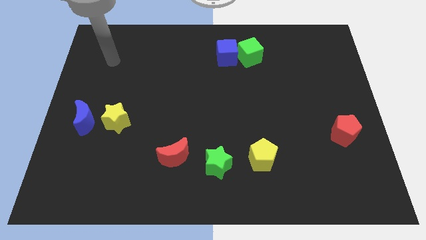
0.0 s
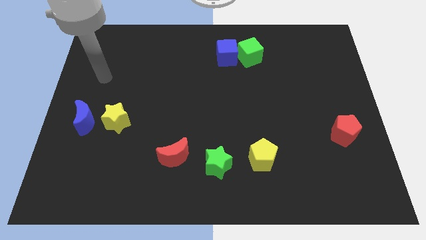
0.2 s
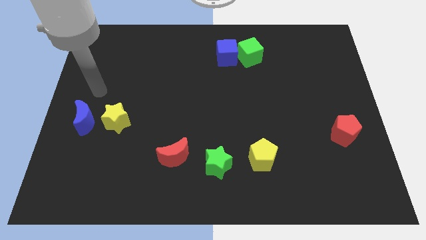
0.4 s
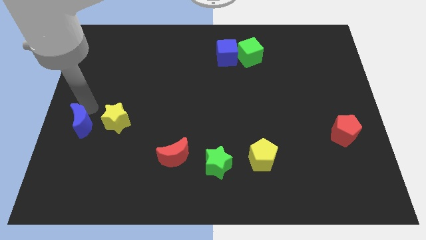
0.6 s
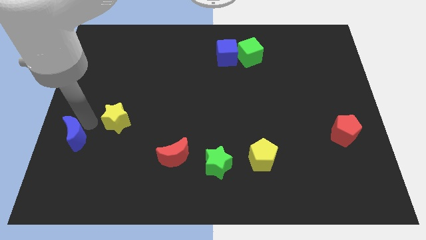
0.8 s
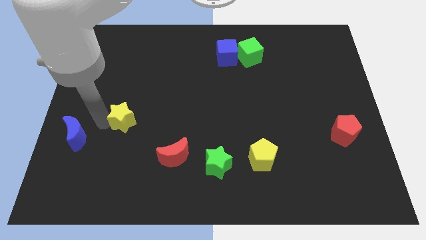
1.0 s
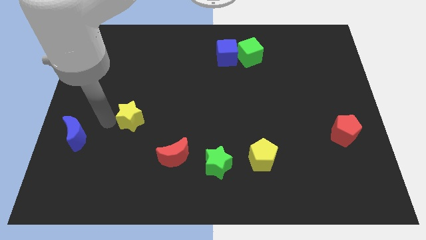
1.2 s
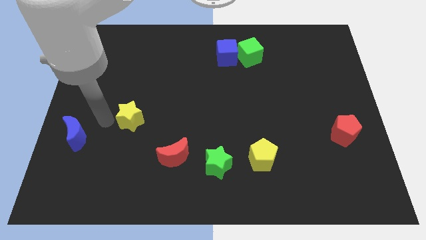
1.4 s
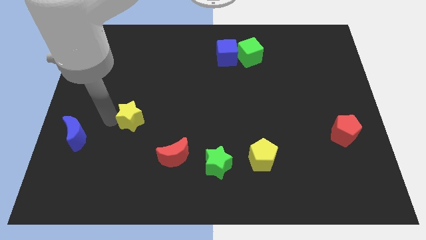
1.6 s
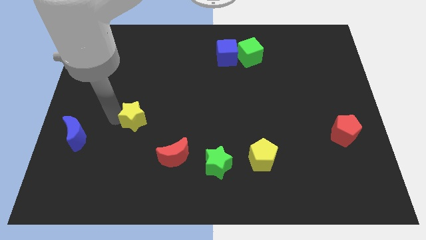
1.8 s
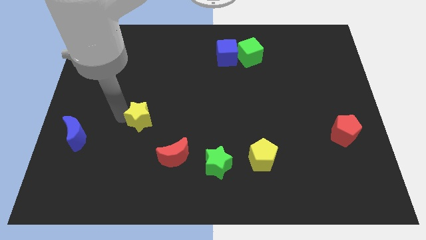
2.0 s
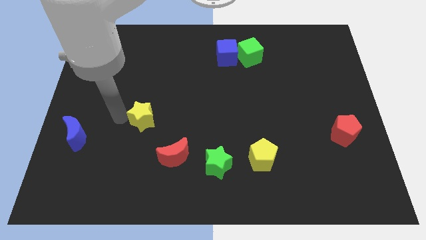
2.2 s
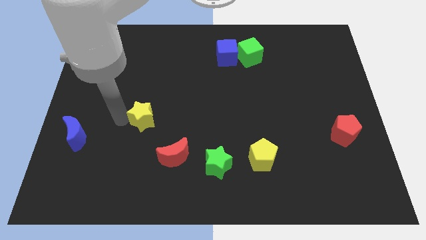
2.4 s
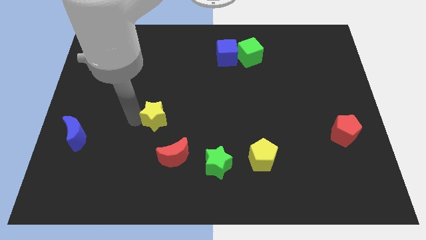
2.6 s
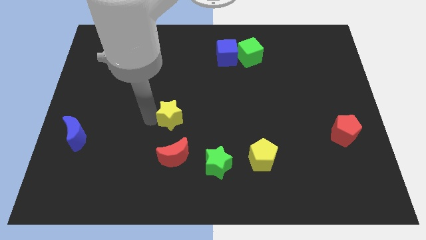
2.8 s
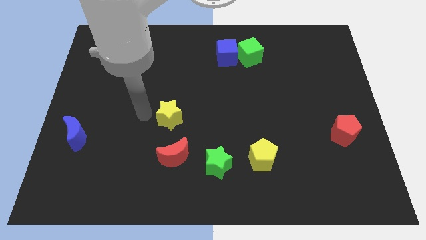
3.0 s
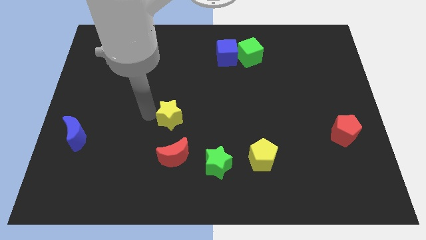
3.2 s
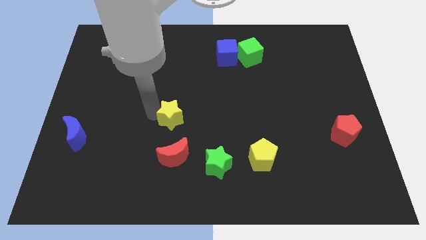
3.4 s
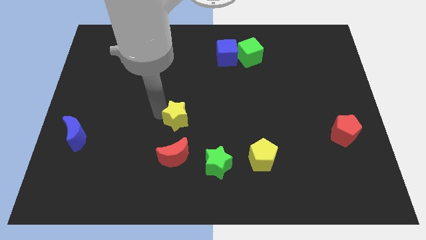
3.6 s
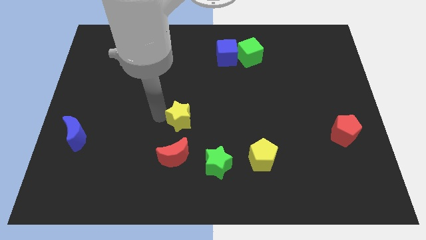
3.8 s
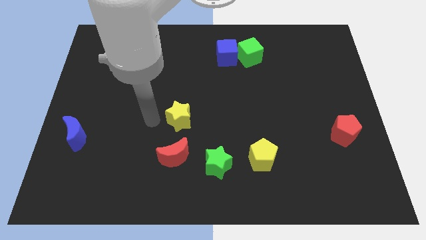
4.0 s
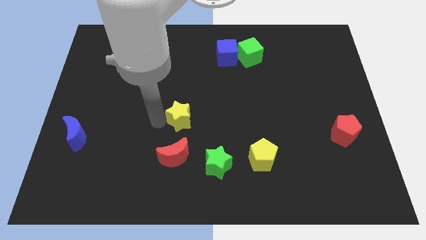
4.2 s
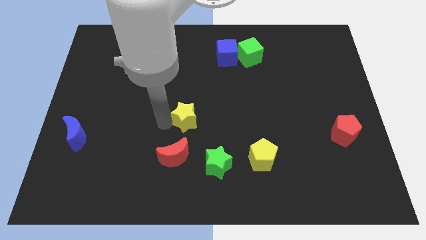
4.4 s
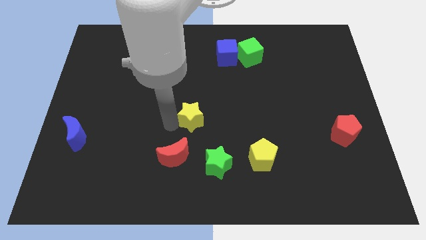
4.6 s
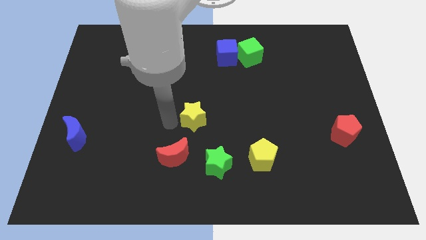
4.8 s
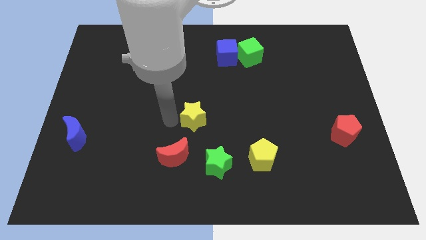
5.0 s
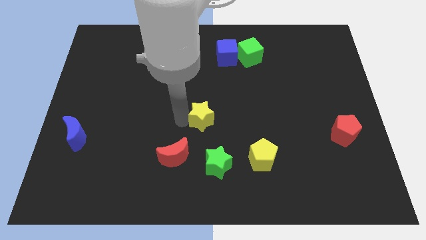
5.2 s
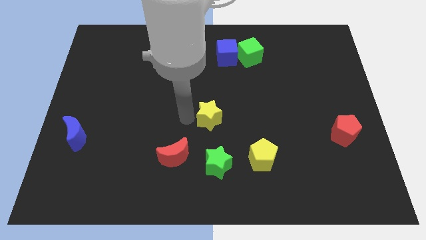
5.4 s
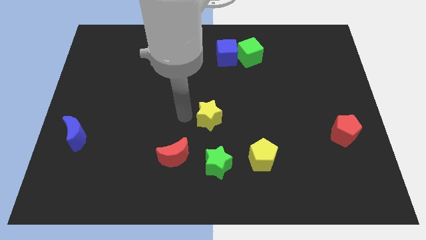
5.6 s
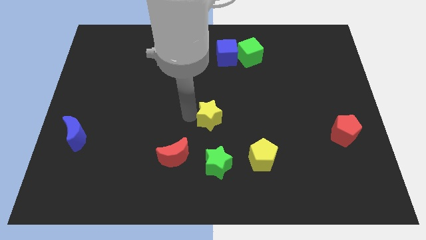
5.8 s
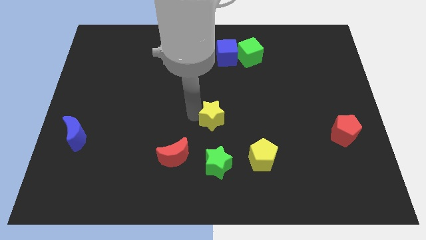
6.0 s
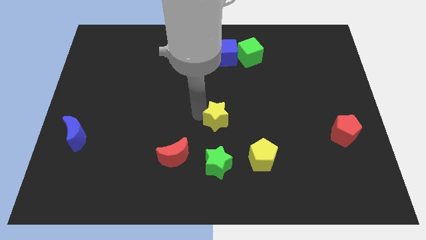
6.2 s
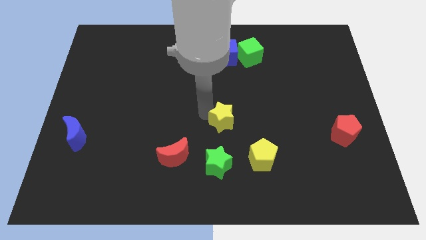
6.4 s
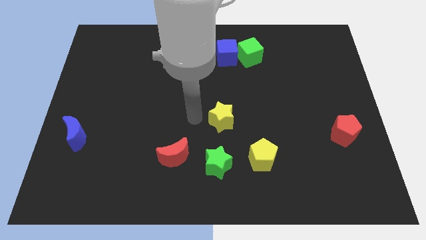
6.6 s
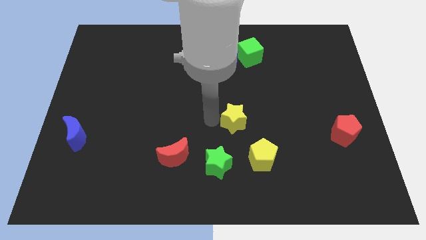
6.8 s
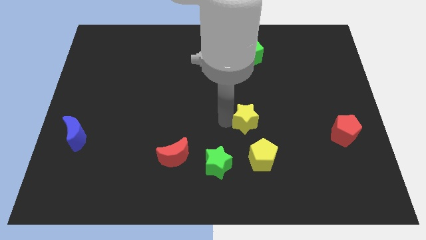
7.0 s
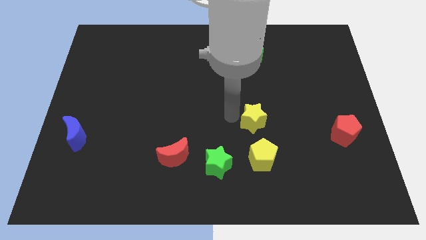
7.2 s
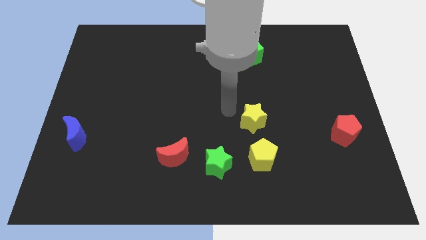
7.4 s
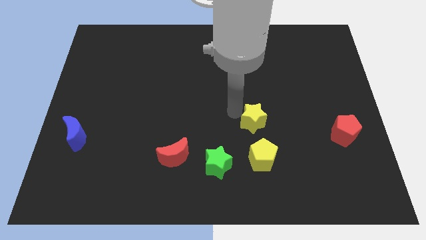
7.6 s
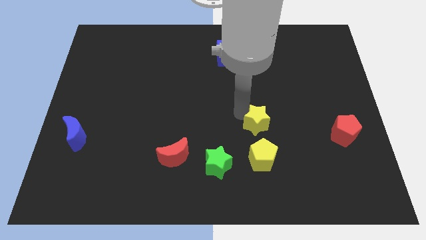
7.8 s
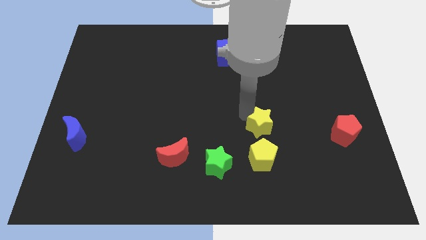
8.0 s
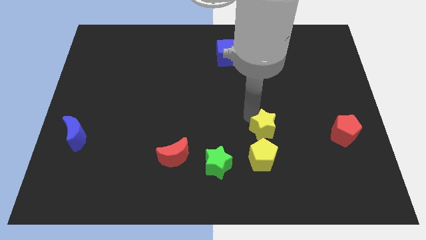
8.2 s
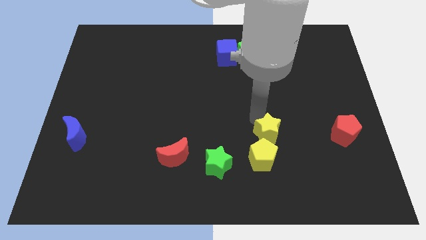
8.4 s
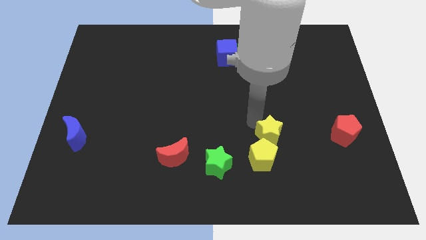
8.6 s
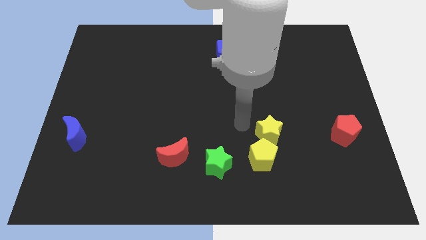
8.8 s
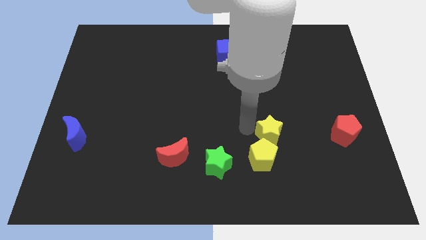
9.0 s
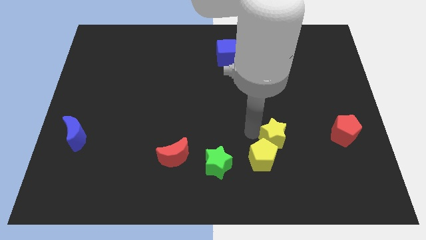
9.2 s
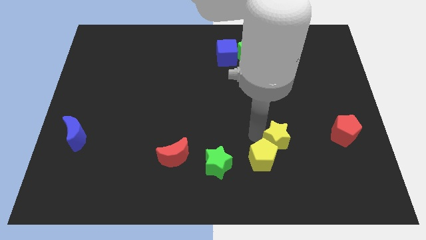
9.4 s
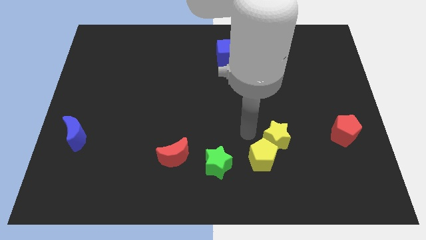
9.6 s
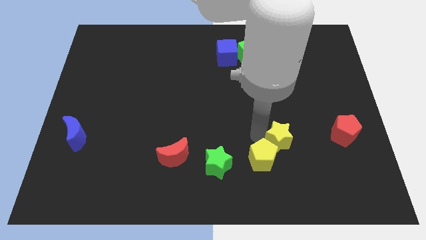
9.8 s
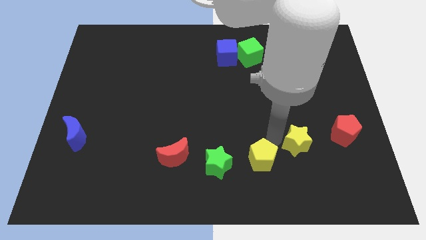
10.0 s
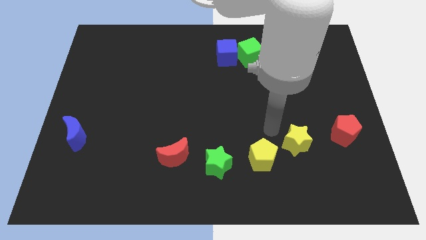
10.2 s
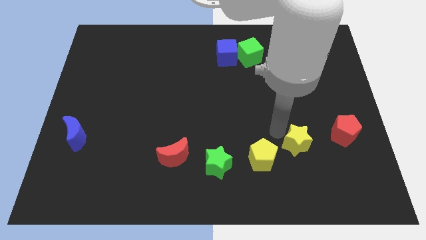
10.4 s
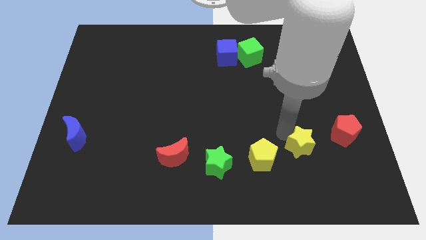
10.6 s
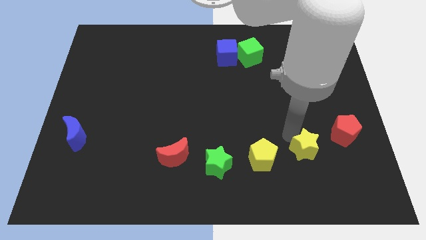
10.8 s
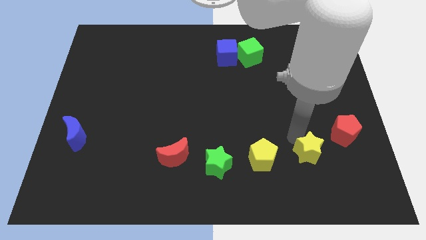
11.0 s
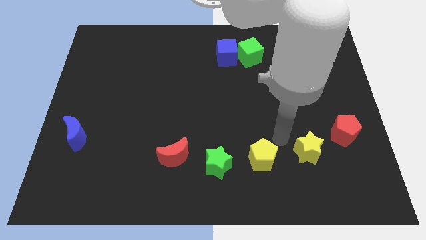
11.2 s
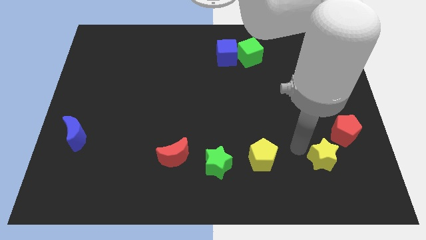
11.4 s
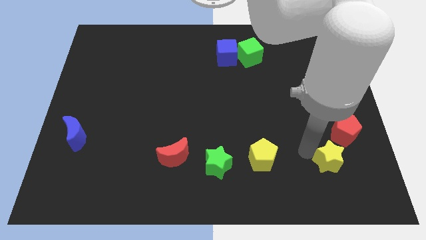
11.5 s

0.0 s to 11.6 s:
push the yellow star to the bottom of the red pentagon

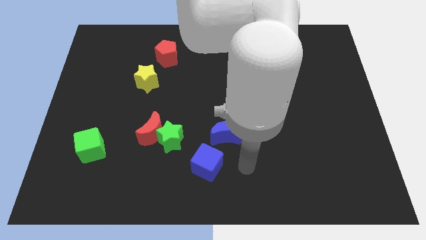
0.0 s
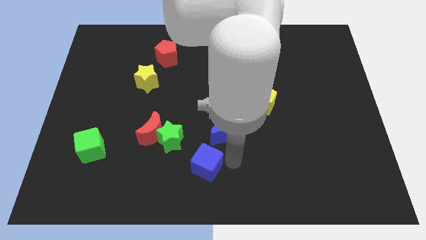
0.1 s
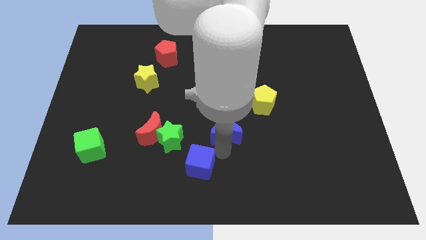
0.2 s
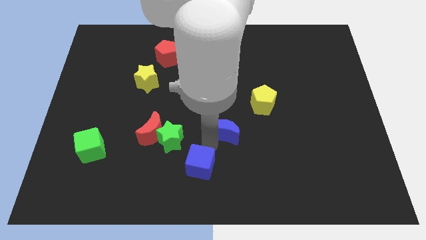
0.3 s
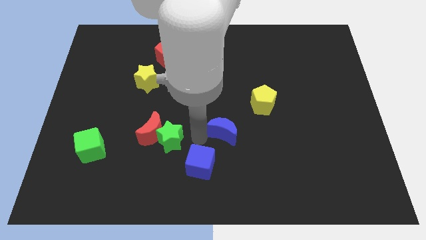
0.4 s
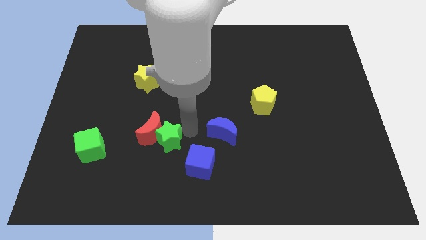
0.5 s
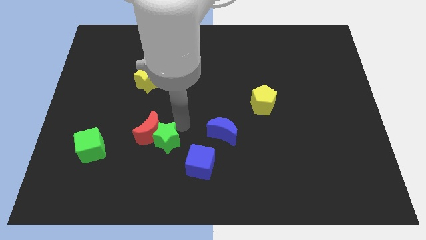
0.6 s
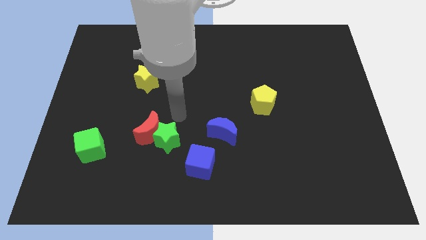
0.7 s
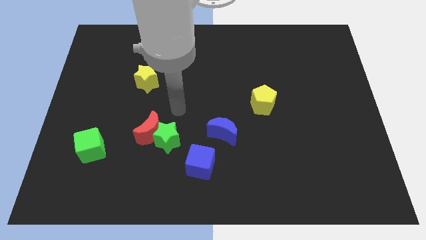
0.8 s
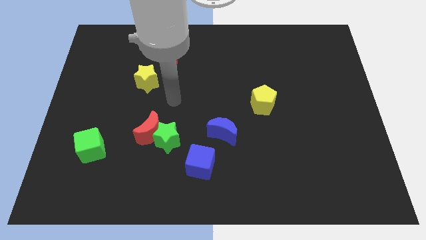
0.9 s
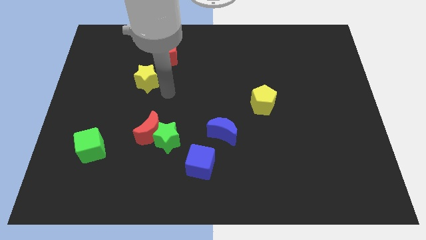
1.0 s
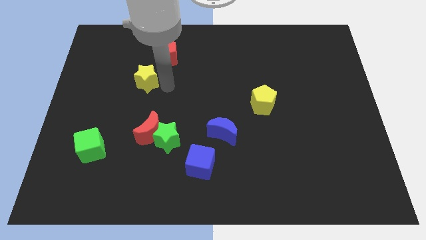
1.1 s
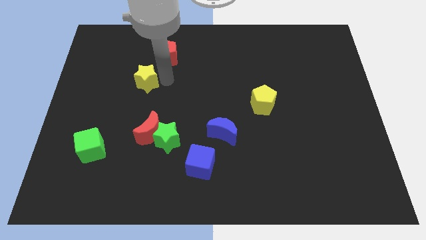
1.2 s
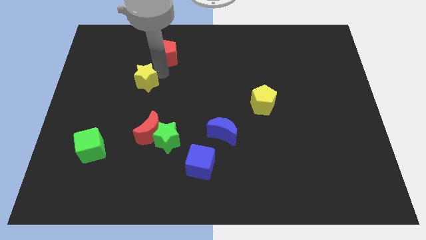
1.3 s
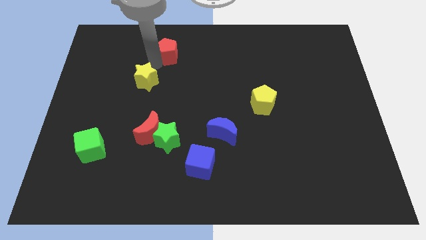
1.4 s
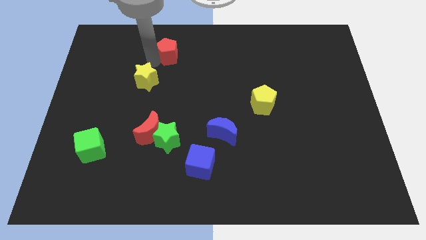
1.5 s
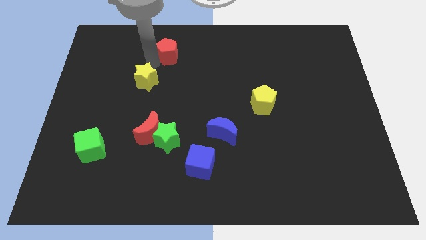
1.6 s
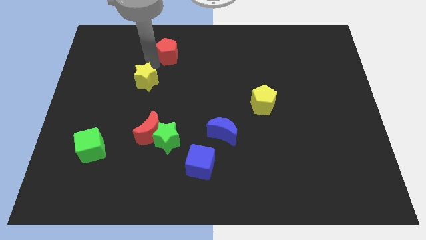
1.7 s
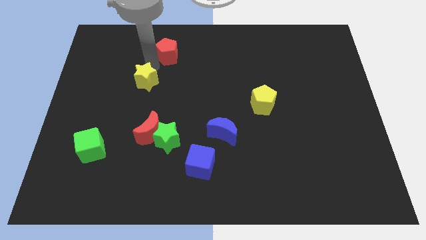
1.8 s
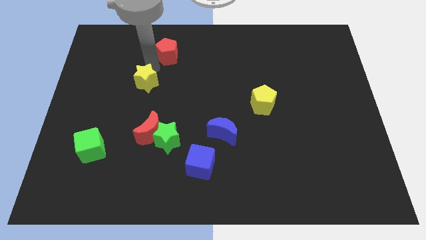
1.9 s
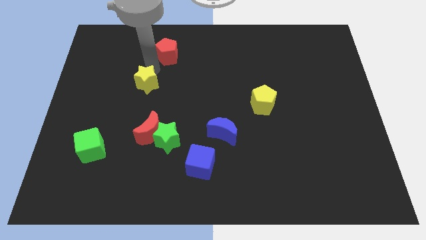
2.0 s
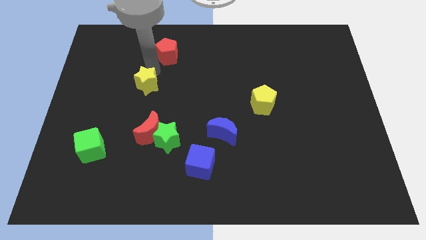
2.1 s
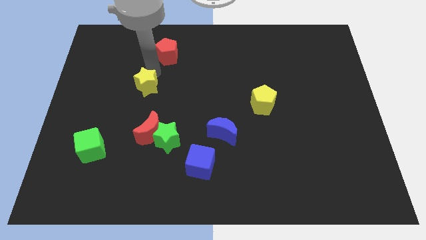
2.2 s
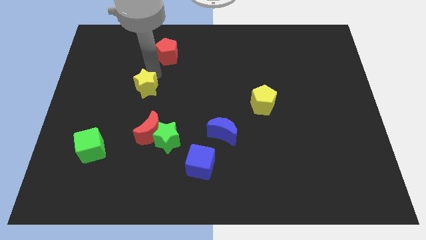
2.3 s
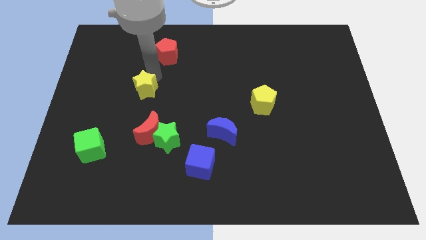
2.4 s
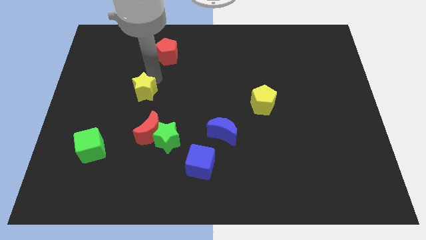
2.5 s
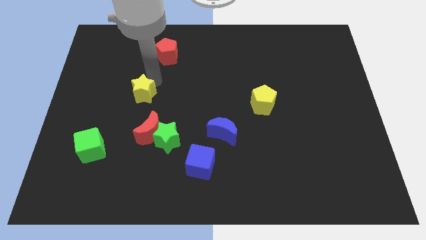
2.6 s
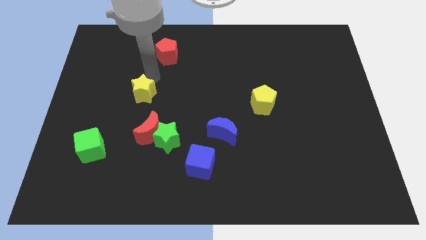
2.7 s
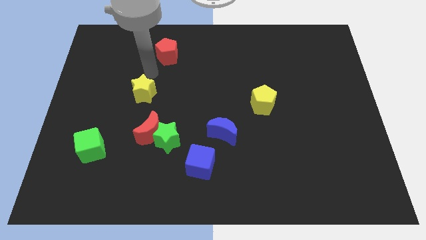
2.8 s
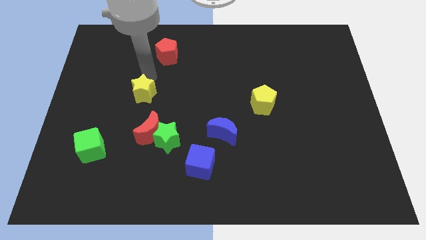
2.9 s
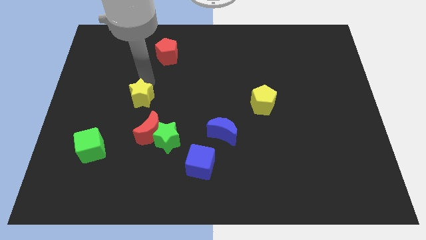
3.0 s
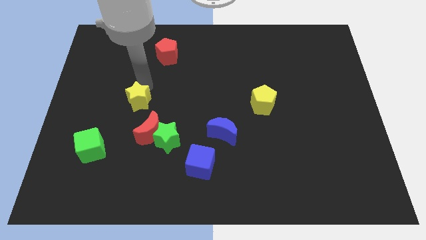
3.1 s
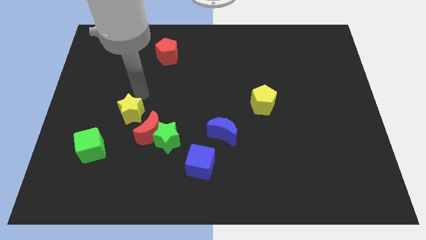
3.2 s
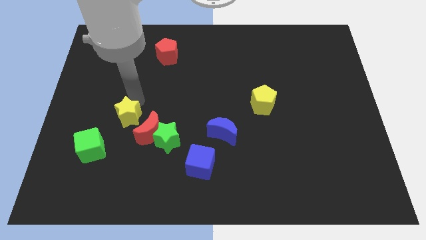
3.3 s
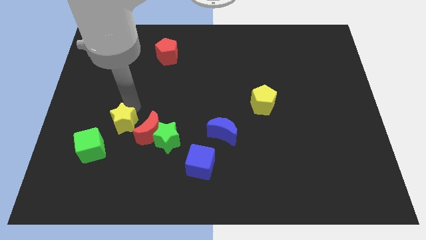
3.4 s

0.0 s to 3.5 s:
put the yellow star to the left side of the green star
